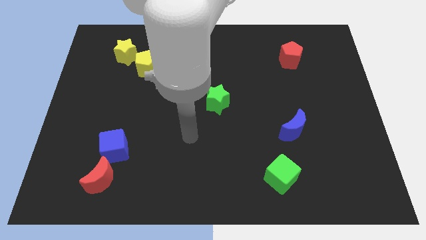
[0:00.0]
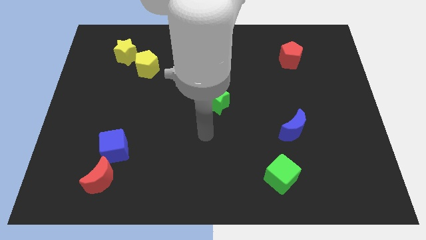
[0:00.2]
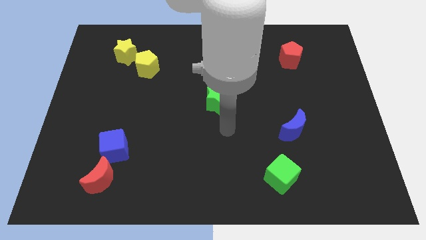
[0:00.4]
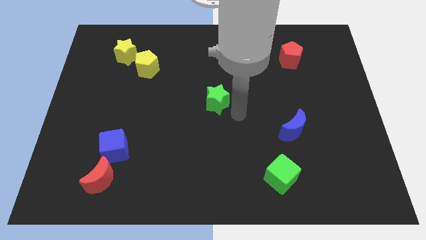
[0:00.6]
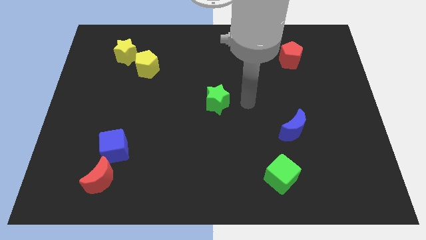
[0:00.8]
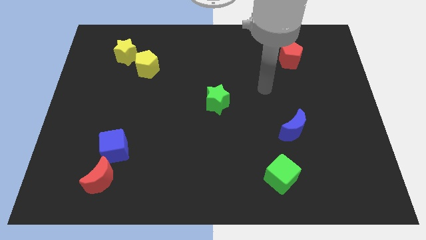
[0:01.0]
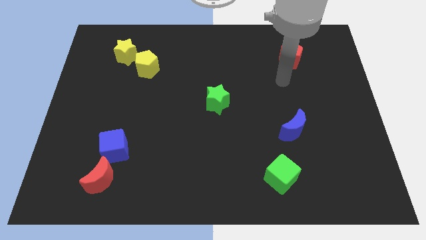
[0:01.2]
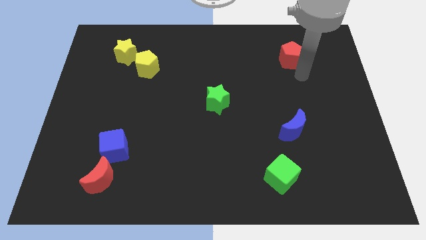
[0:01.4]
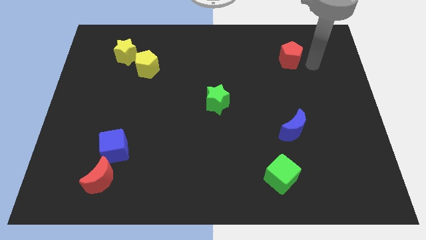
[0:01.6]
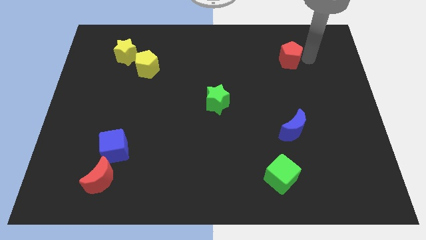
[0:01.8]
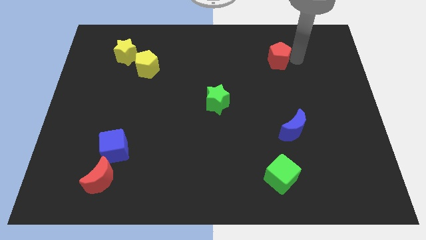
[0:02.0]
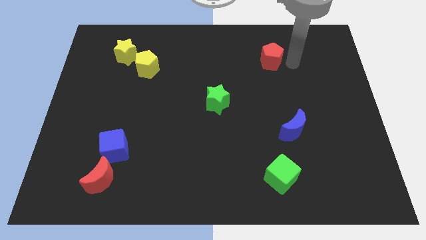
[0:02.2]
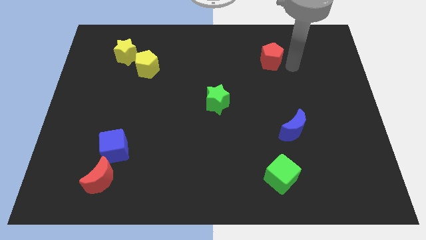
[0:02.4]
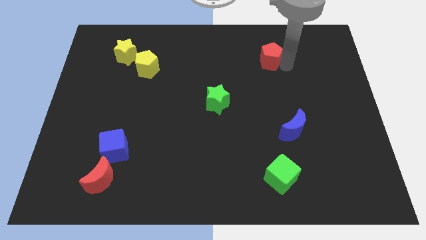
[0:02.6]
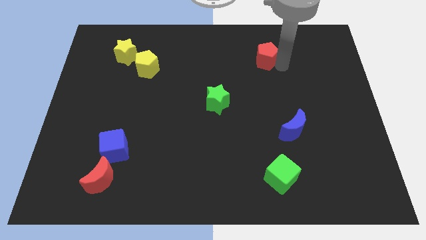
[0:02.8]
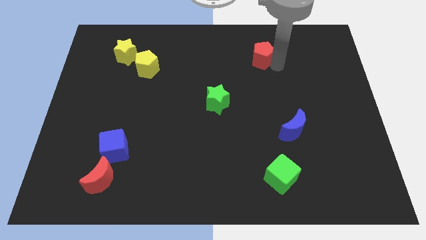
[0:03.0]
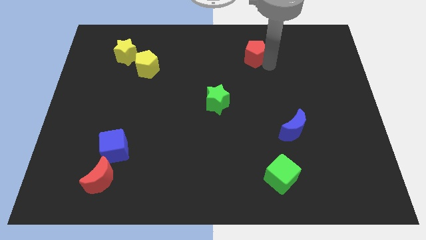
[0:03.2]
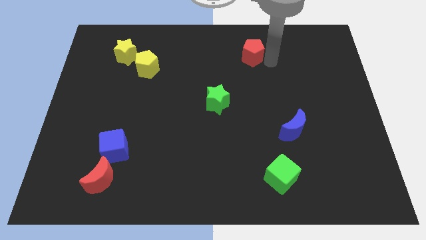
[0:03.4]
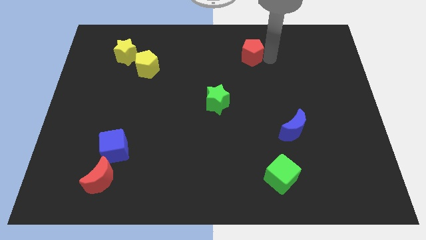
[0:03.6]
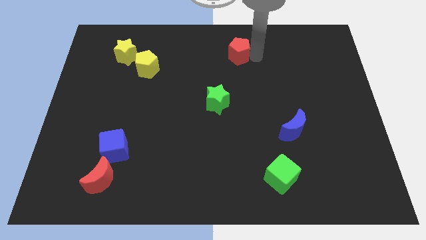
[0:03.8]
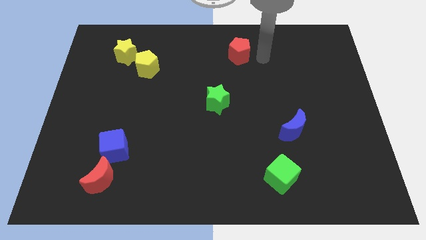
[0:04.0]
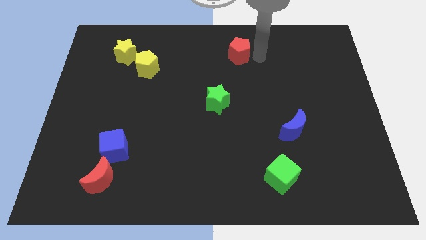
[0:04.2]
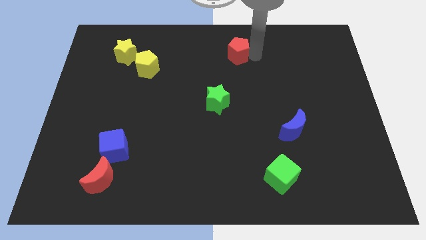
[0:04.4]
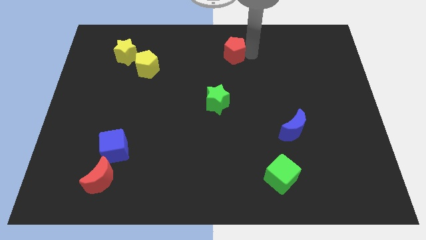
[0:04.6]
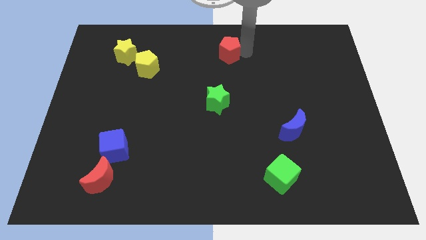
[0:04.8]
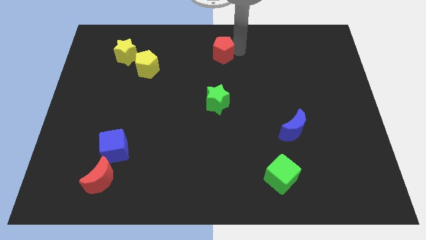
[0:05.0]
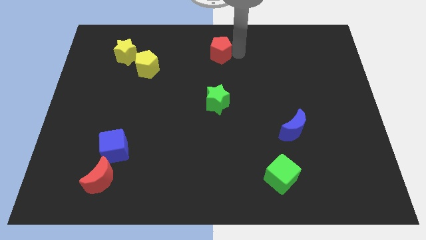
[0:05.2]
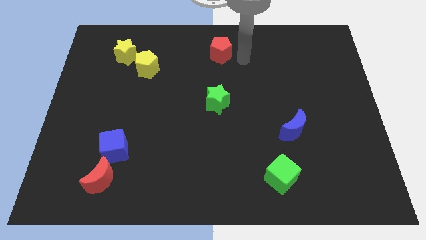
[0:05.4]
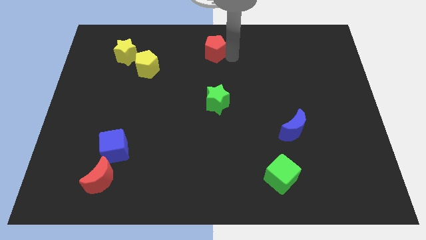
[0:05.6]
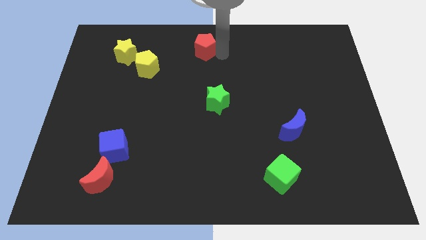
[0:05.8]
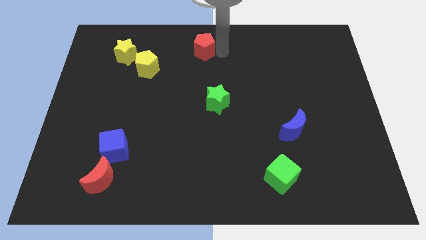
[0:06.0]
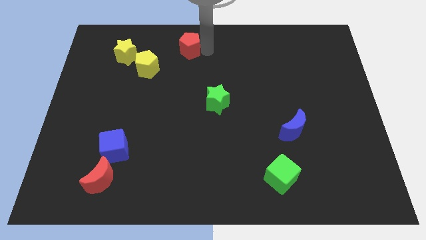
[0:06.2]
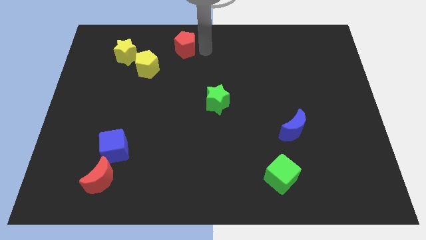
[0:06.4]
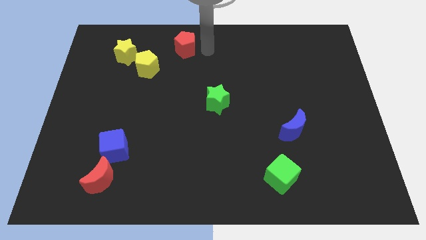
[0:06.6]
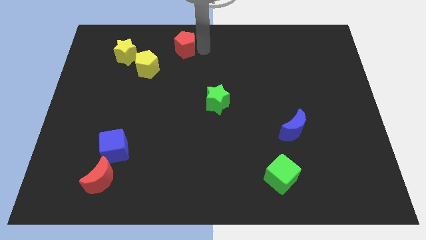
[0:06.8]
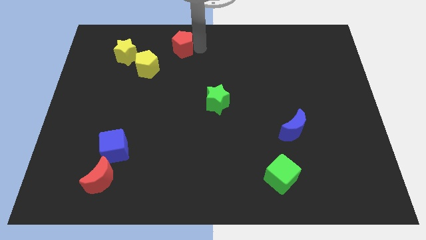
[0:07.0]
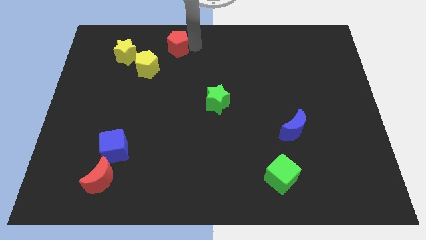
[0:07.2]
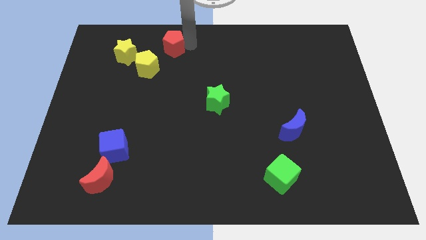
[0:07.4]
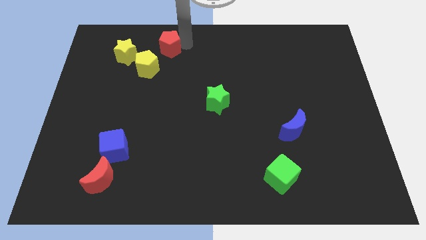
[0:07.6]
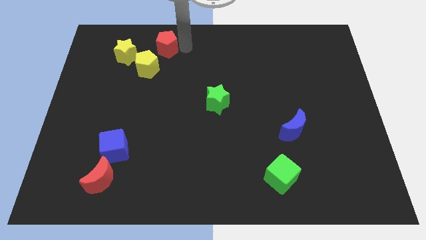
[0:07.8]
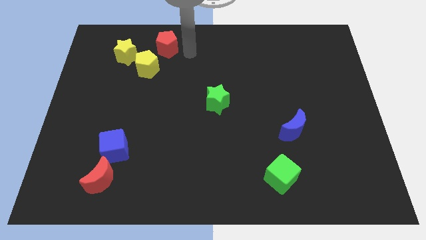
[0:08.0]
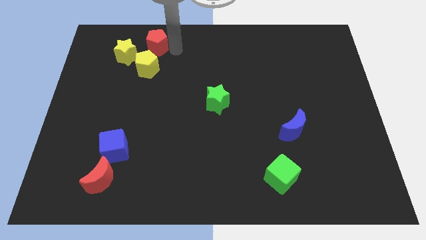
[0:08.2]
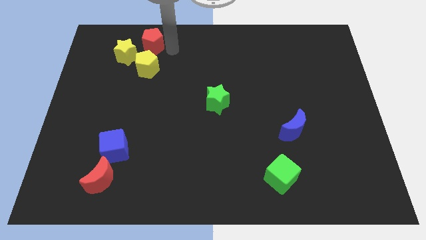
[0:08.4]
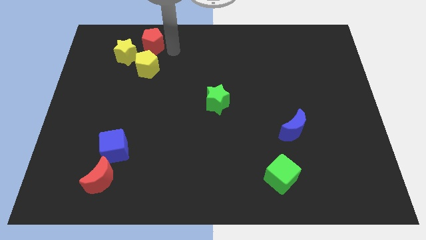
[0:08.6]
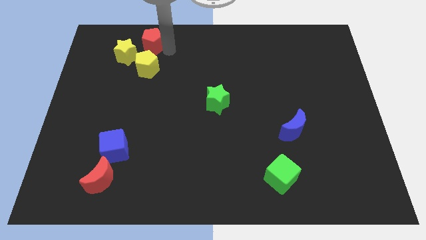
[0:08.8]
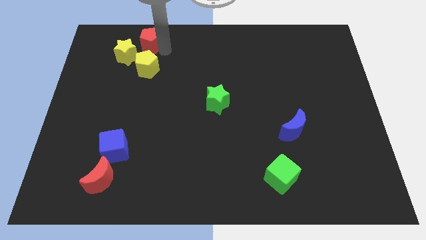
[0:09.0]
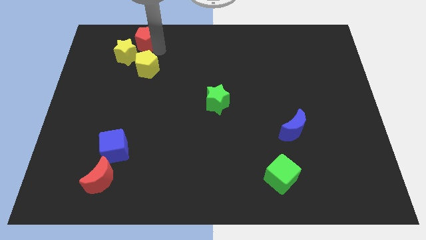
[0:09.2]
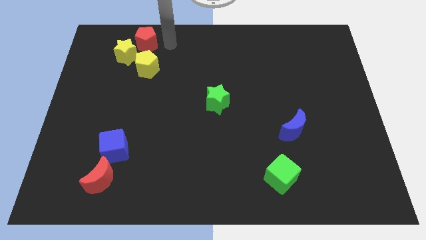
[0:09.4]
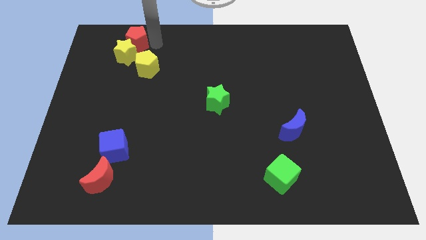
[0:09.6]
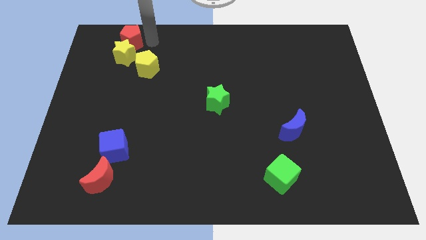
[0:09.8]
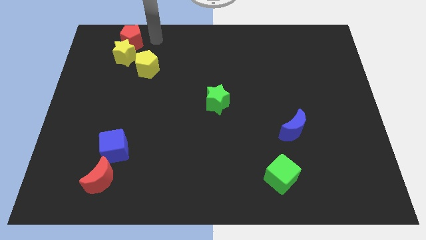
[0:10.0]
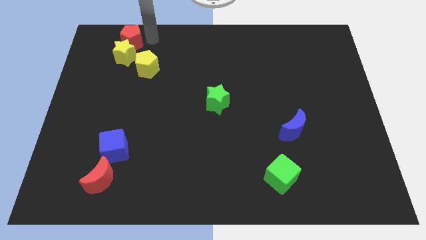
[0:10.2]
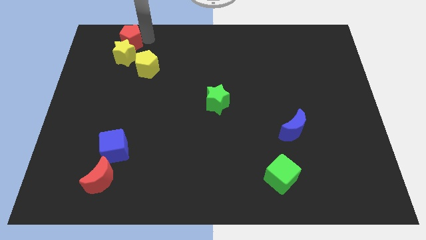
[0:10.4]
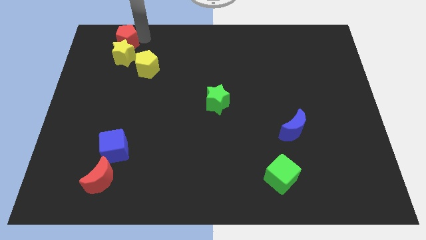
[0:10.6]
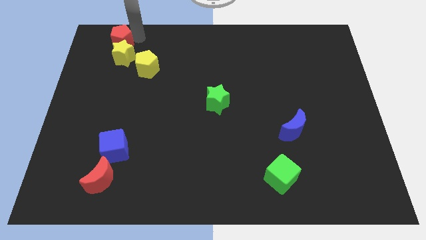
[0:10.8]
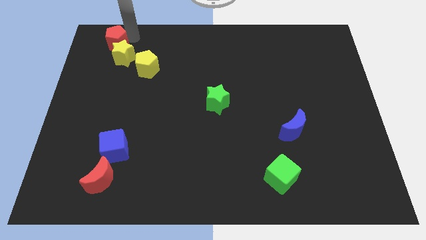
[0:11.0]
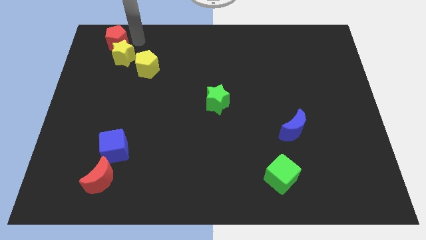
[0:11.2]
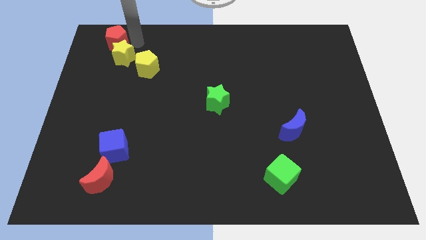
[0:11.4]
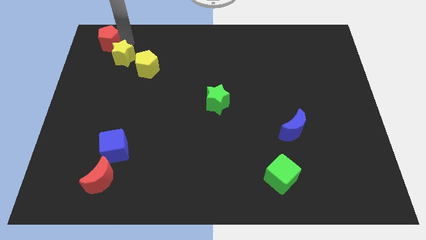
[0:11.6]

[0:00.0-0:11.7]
move the red pentagon to the top left
